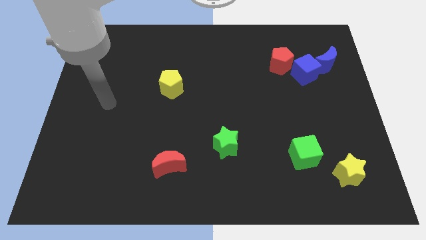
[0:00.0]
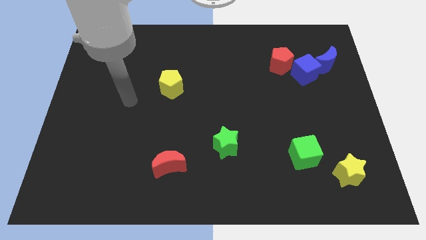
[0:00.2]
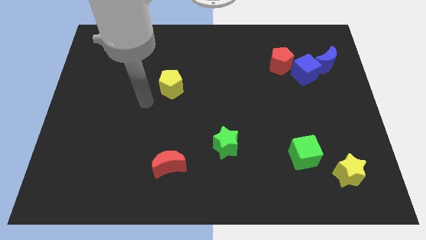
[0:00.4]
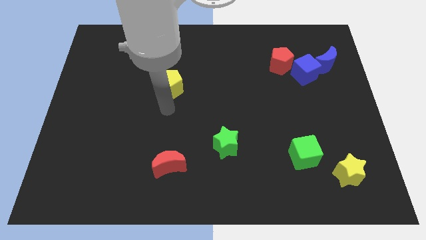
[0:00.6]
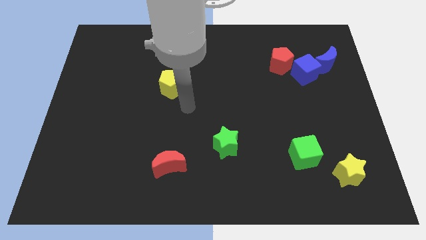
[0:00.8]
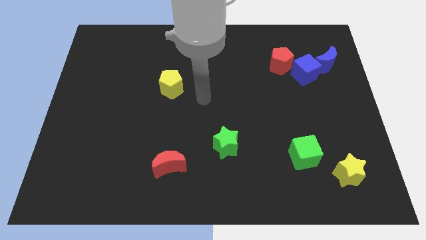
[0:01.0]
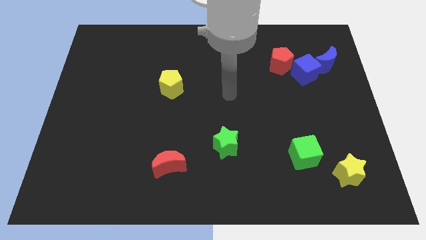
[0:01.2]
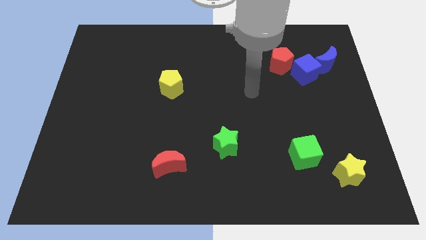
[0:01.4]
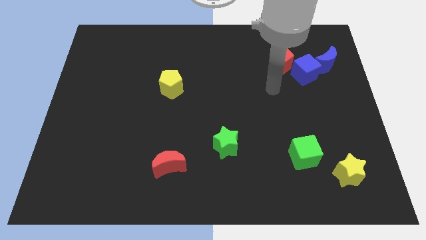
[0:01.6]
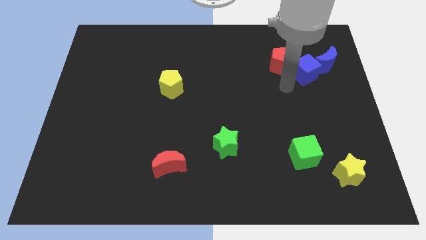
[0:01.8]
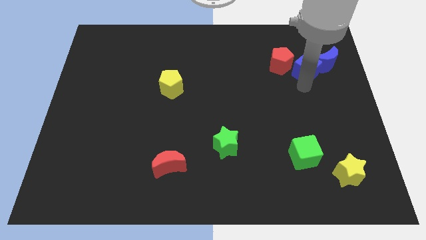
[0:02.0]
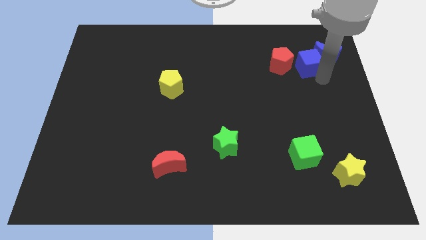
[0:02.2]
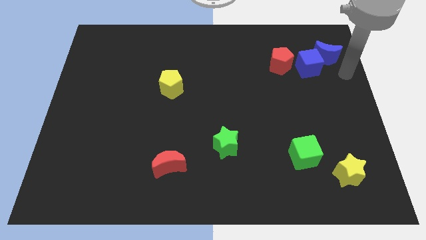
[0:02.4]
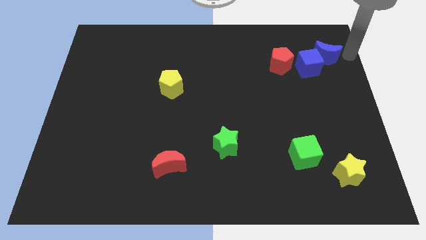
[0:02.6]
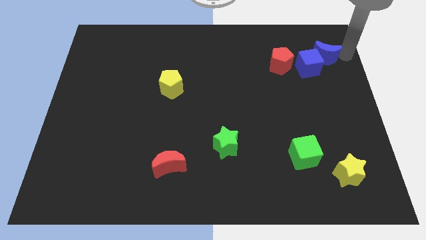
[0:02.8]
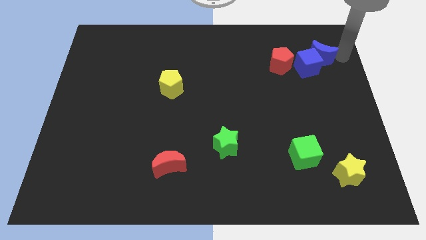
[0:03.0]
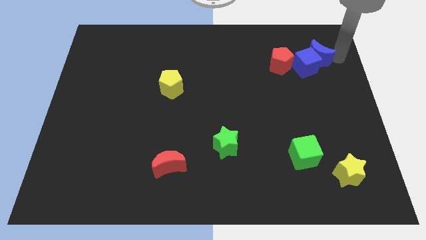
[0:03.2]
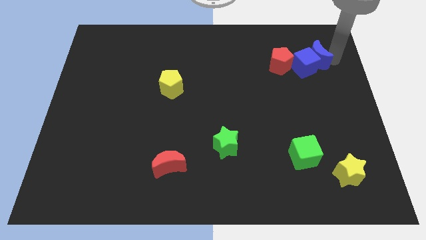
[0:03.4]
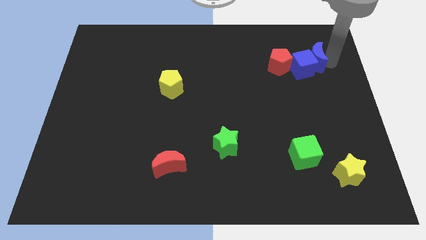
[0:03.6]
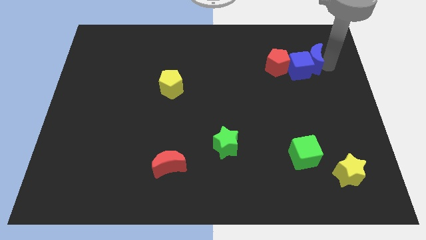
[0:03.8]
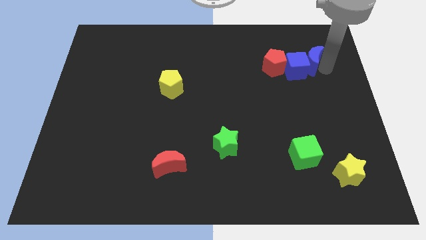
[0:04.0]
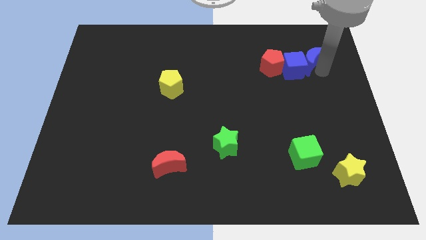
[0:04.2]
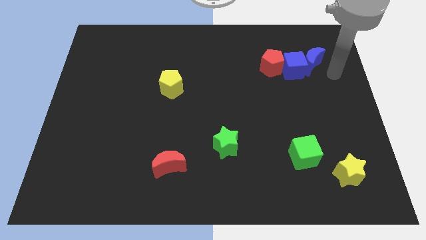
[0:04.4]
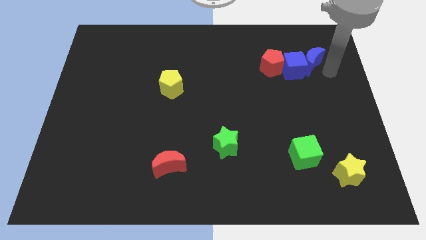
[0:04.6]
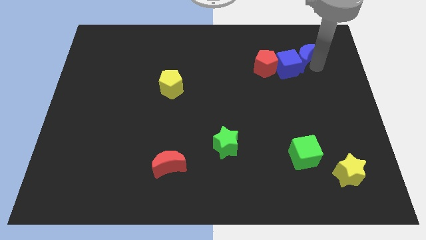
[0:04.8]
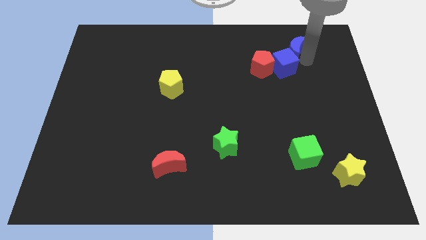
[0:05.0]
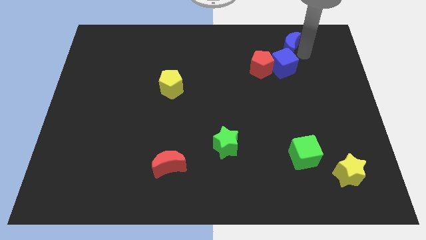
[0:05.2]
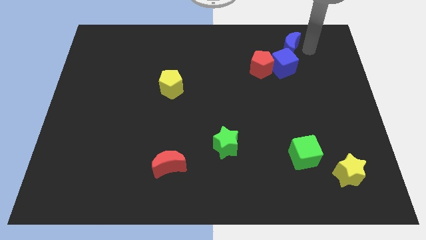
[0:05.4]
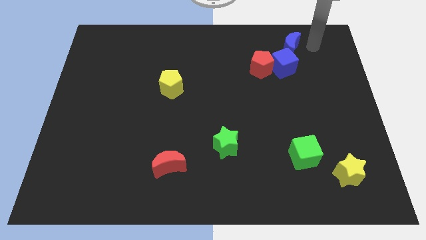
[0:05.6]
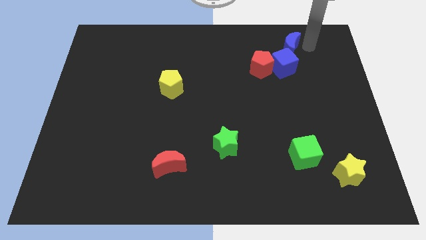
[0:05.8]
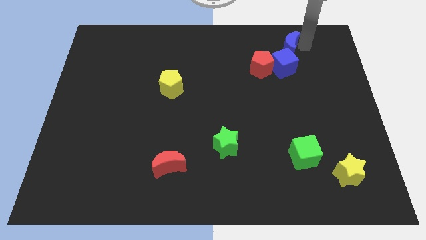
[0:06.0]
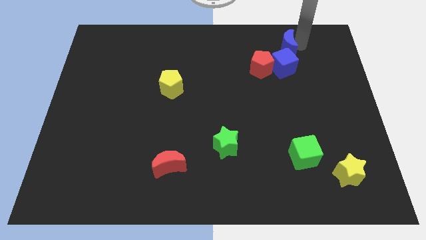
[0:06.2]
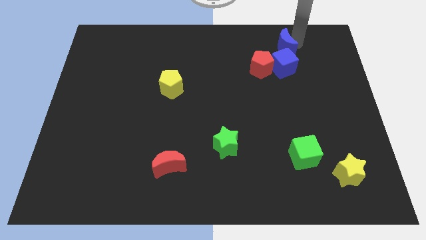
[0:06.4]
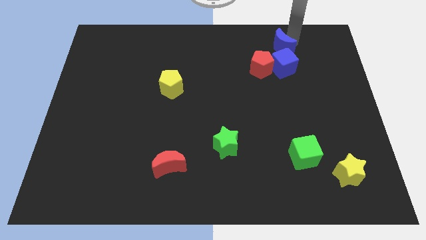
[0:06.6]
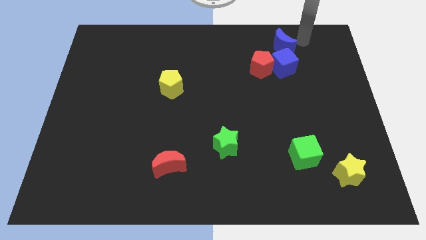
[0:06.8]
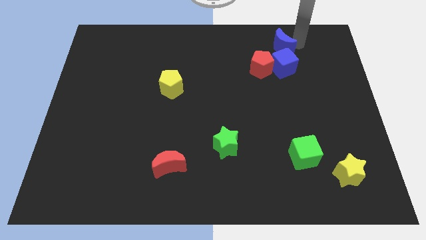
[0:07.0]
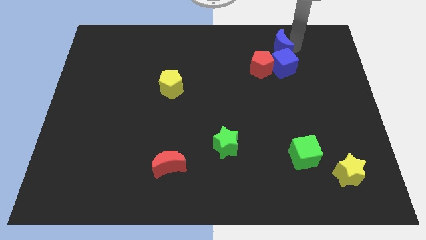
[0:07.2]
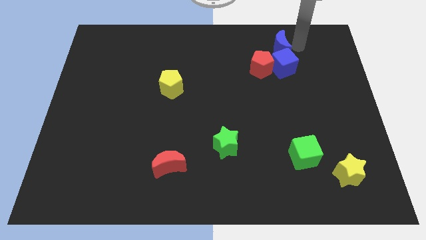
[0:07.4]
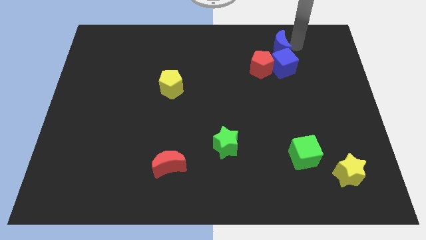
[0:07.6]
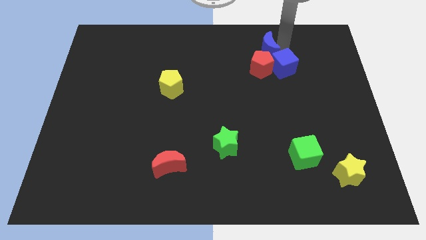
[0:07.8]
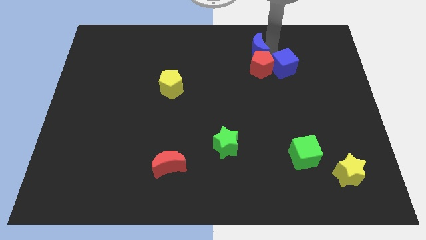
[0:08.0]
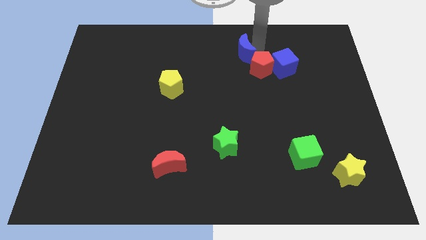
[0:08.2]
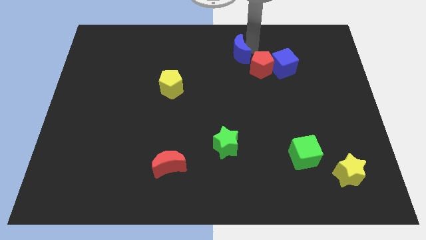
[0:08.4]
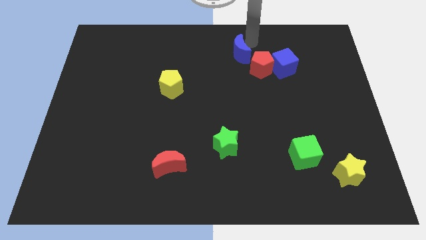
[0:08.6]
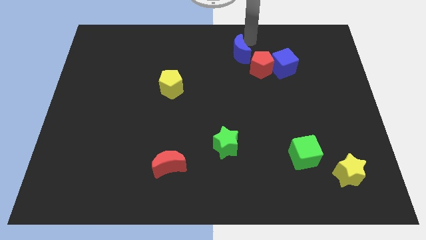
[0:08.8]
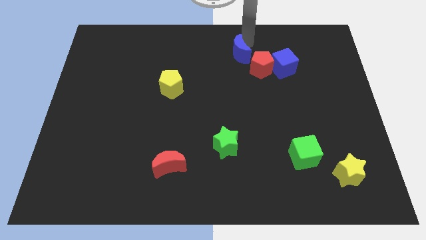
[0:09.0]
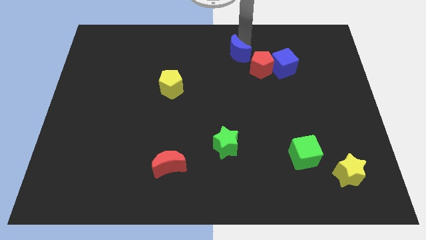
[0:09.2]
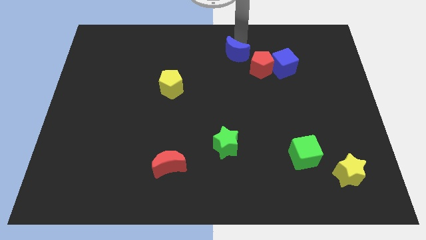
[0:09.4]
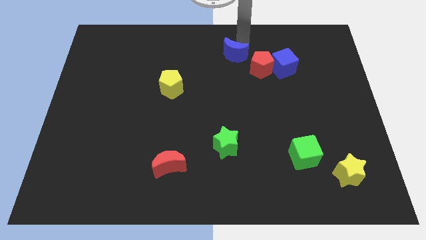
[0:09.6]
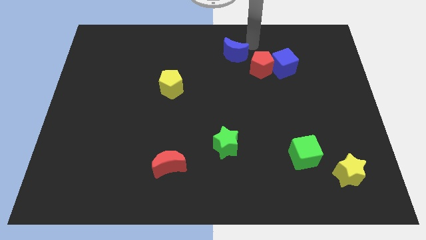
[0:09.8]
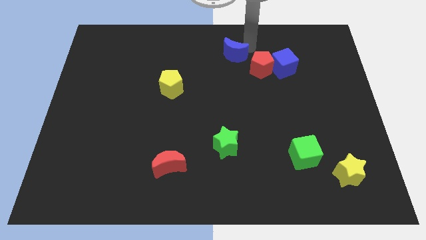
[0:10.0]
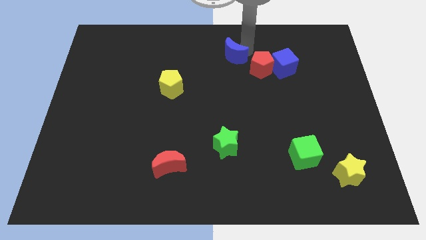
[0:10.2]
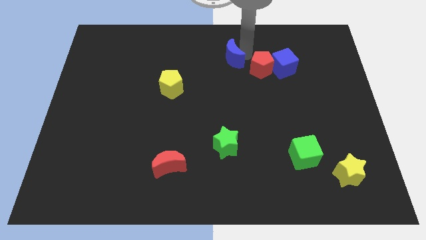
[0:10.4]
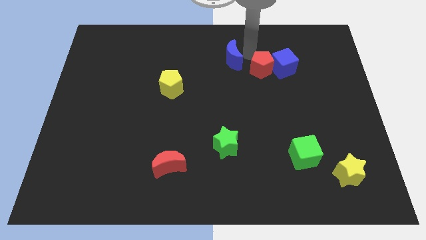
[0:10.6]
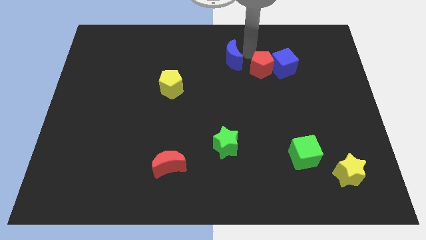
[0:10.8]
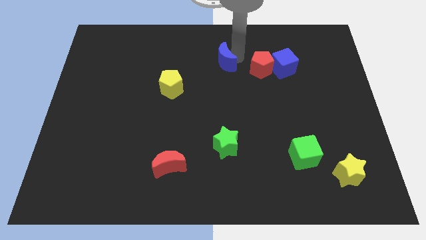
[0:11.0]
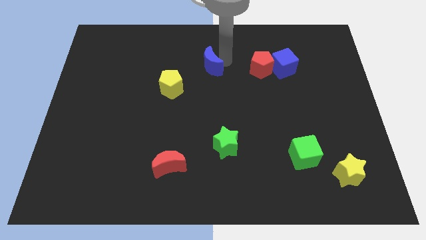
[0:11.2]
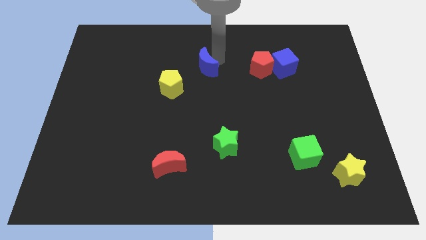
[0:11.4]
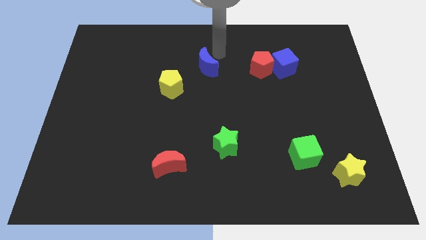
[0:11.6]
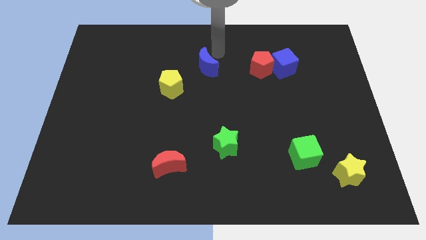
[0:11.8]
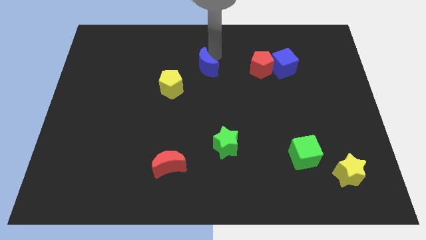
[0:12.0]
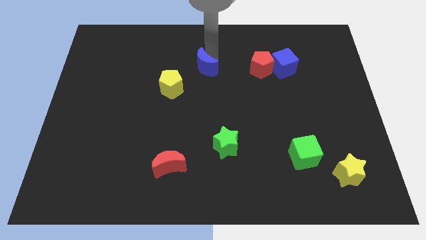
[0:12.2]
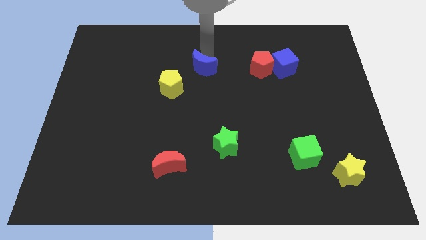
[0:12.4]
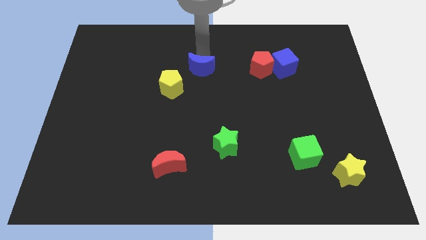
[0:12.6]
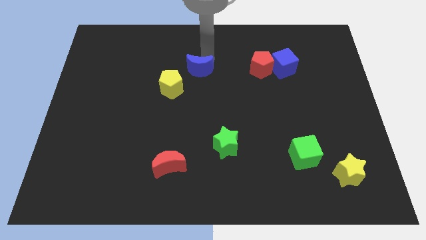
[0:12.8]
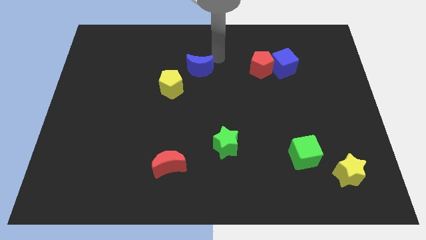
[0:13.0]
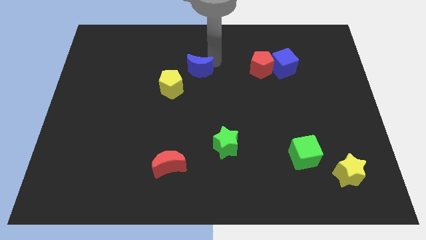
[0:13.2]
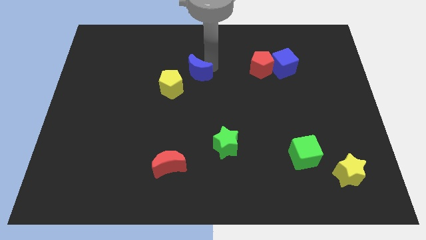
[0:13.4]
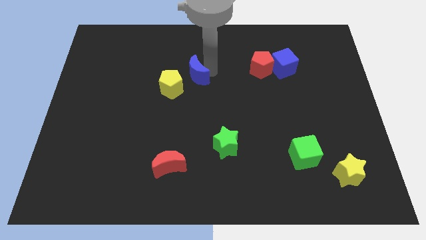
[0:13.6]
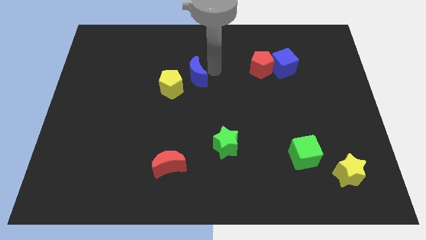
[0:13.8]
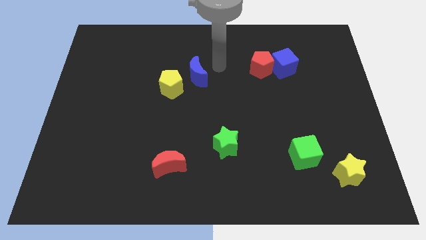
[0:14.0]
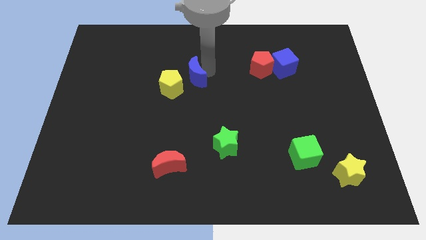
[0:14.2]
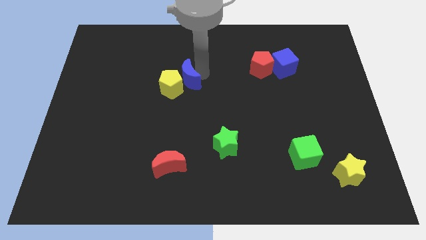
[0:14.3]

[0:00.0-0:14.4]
move the blue moon towards the yellow pentagon
